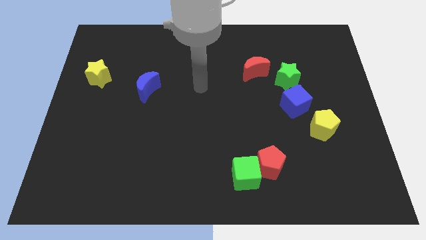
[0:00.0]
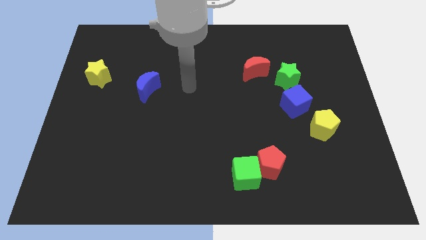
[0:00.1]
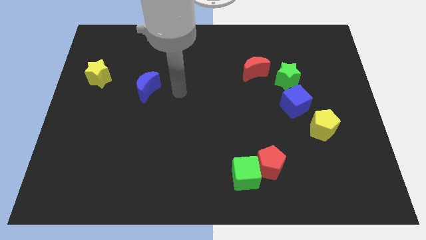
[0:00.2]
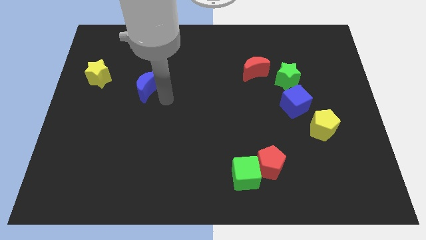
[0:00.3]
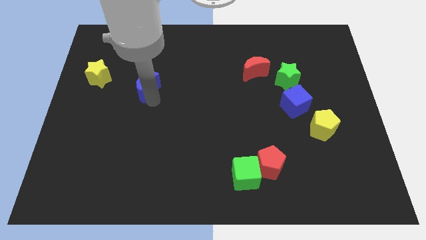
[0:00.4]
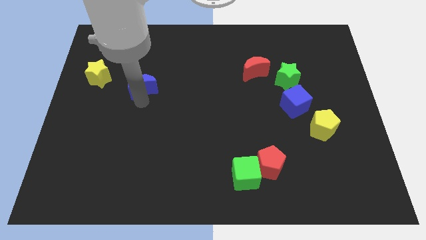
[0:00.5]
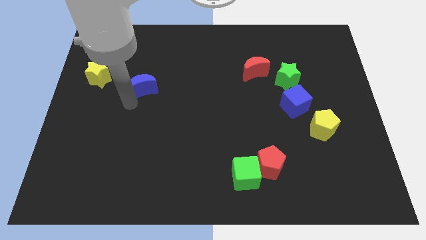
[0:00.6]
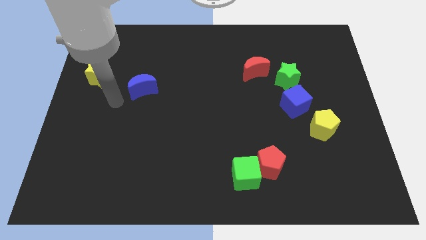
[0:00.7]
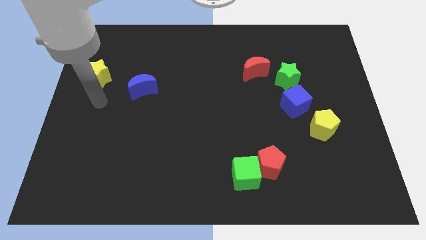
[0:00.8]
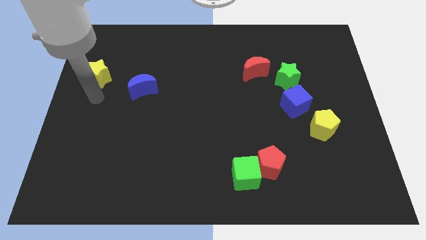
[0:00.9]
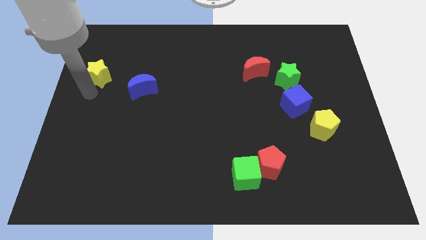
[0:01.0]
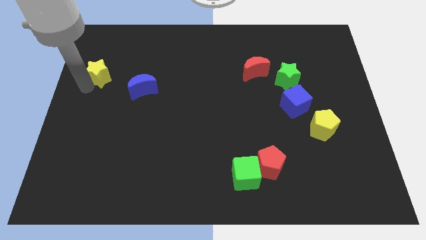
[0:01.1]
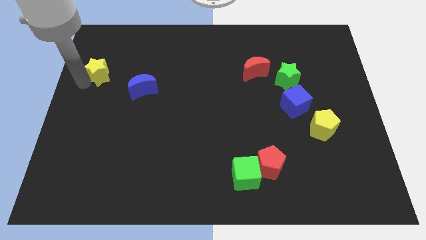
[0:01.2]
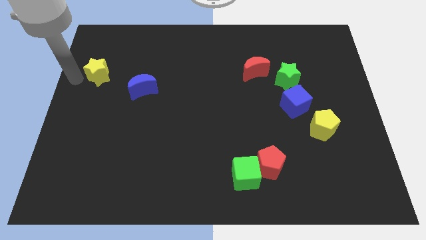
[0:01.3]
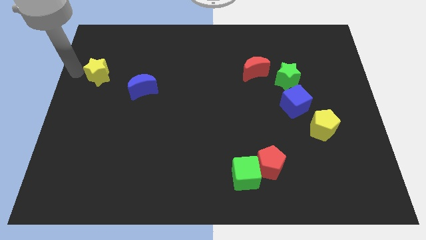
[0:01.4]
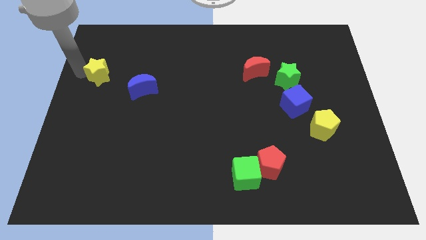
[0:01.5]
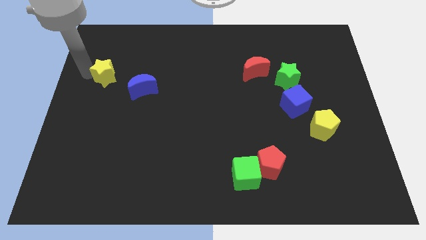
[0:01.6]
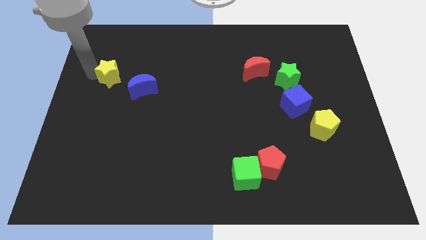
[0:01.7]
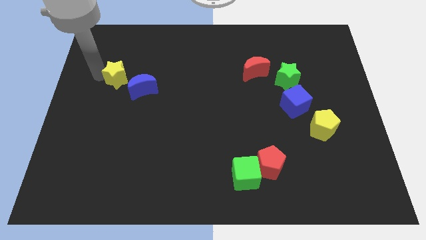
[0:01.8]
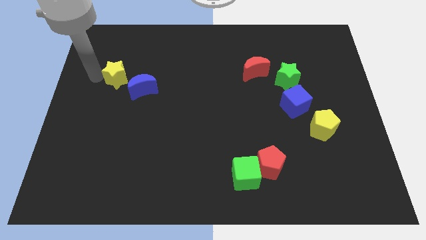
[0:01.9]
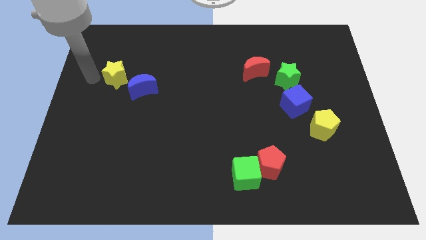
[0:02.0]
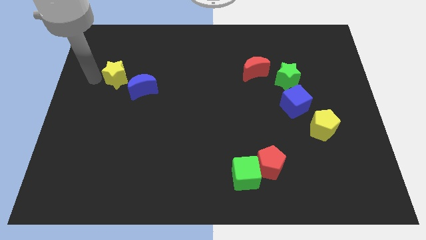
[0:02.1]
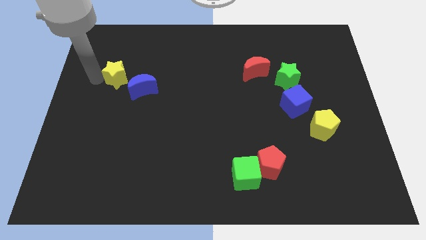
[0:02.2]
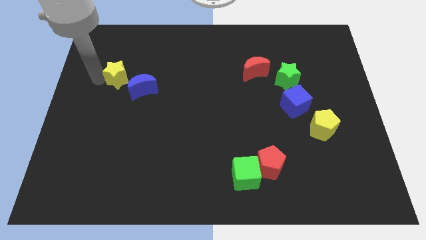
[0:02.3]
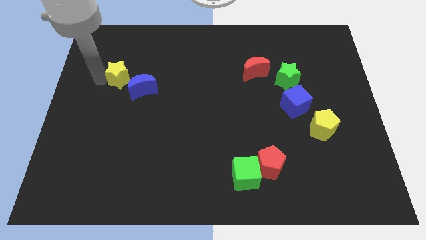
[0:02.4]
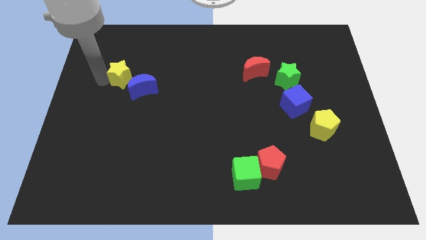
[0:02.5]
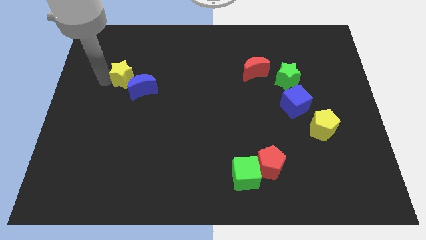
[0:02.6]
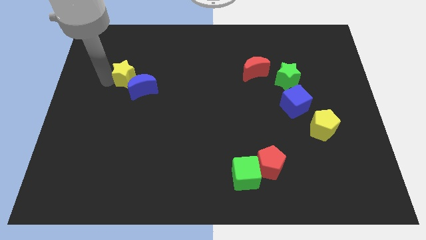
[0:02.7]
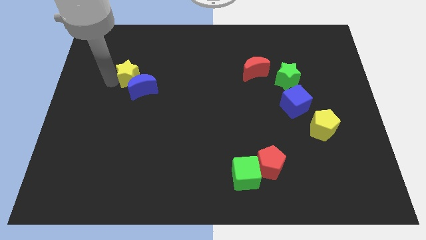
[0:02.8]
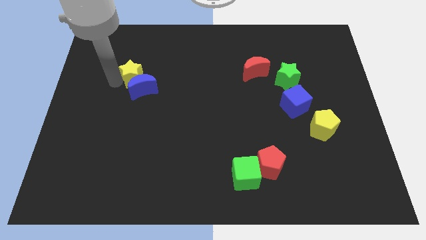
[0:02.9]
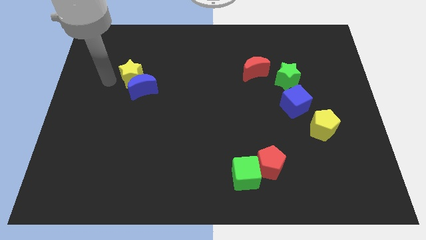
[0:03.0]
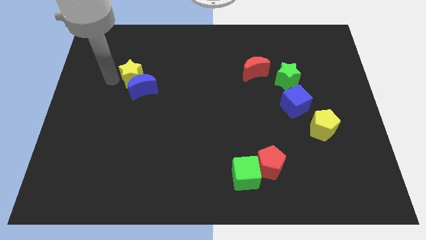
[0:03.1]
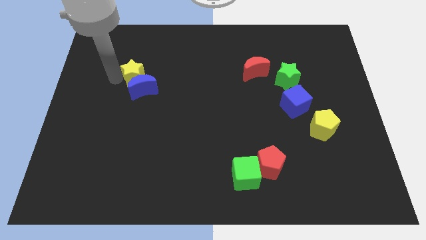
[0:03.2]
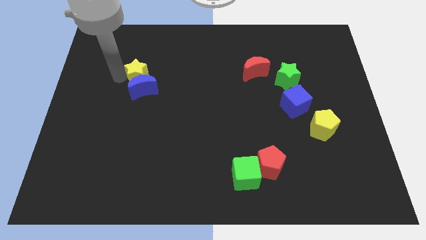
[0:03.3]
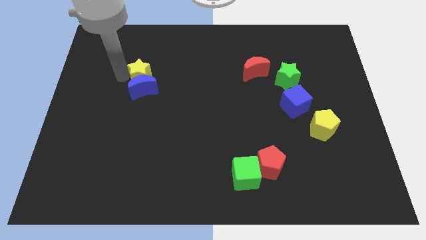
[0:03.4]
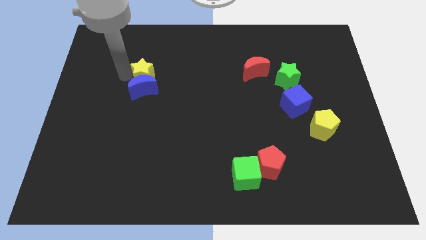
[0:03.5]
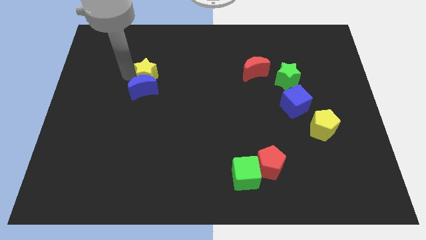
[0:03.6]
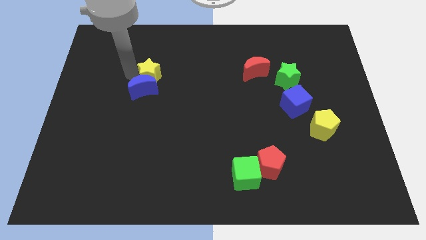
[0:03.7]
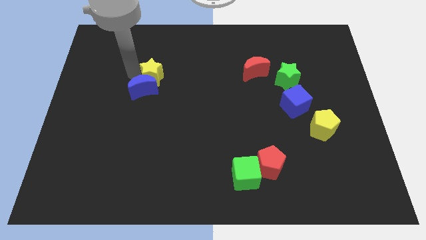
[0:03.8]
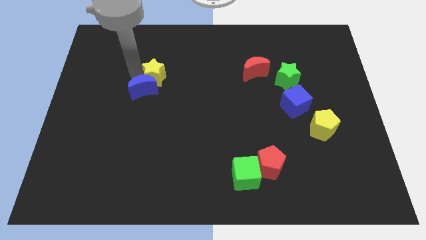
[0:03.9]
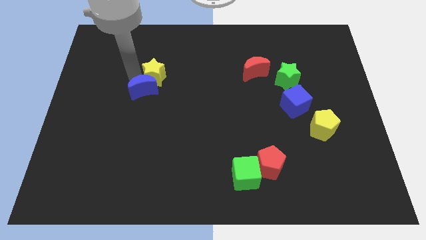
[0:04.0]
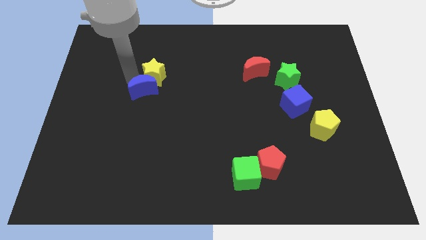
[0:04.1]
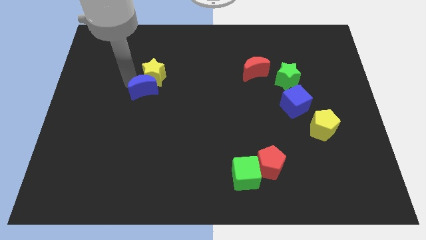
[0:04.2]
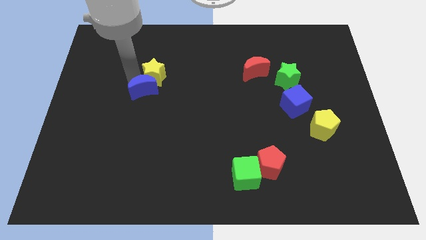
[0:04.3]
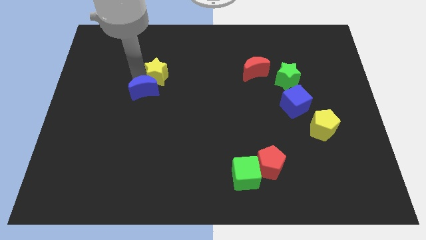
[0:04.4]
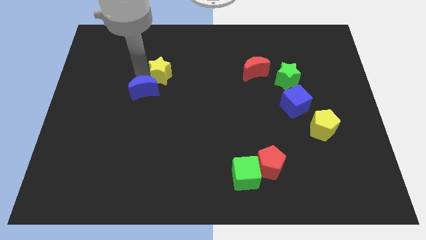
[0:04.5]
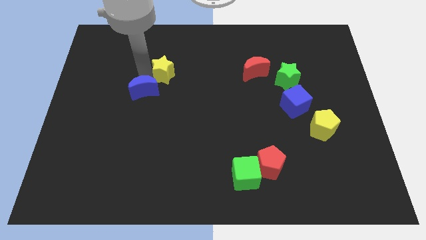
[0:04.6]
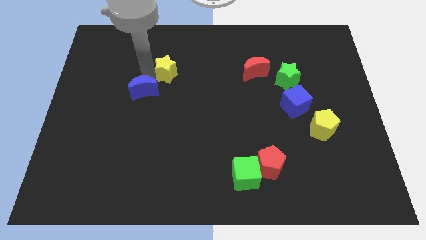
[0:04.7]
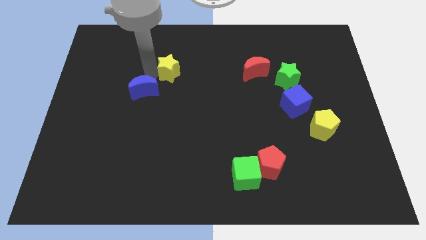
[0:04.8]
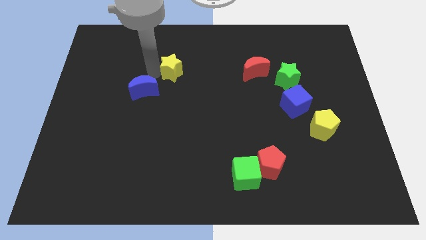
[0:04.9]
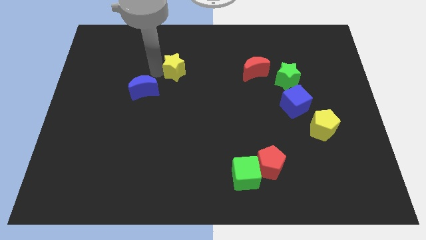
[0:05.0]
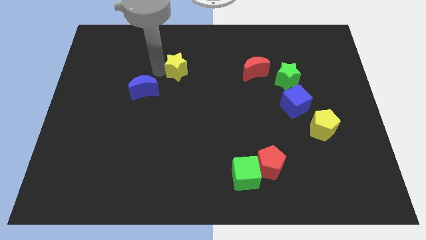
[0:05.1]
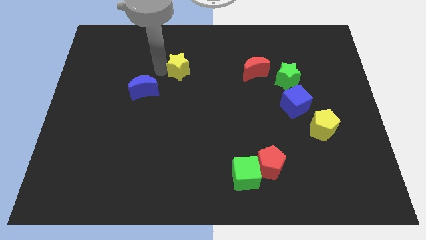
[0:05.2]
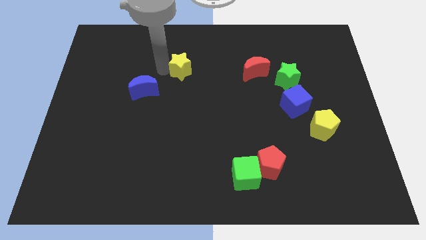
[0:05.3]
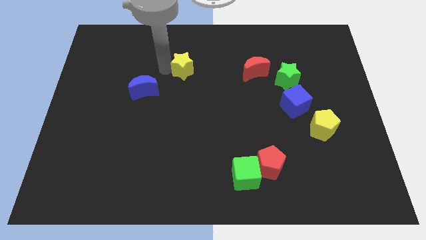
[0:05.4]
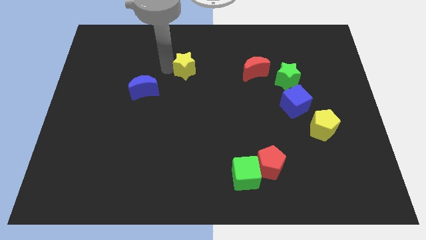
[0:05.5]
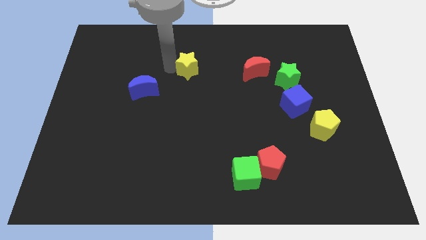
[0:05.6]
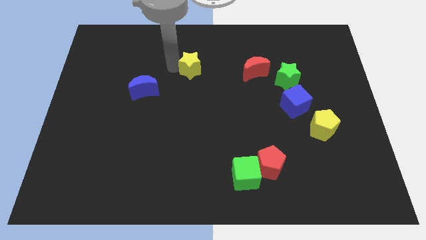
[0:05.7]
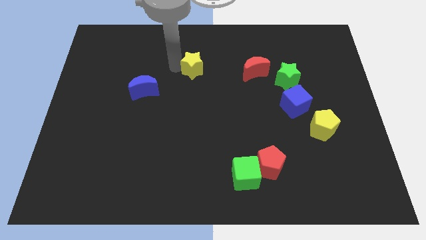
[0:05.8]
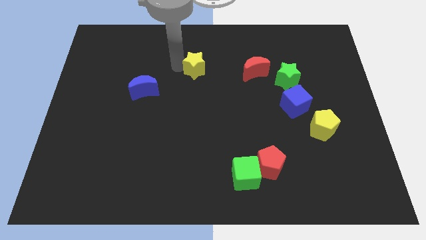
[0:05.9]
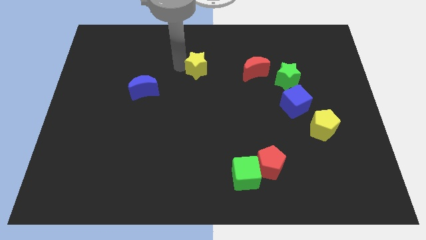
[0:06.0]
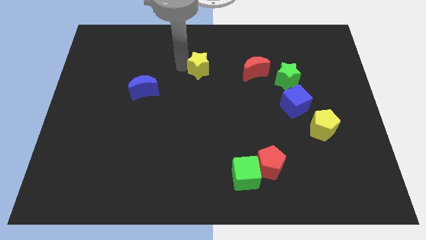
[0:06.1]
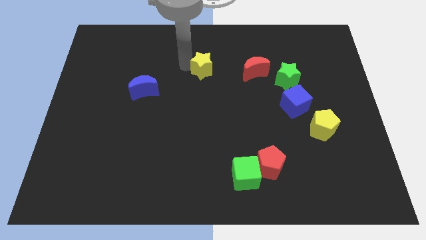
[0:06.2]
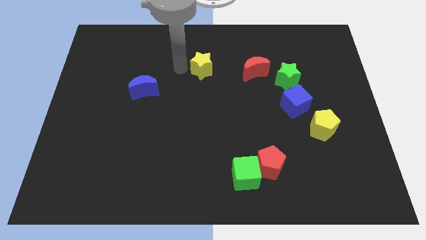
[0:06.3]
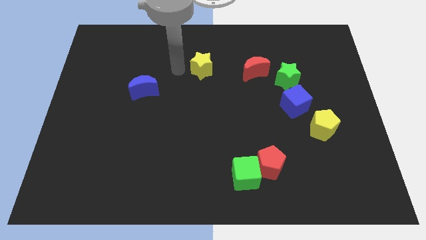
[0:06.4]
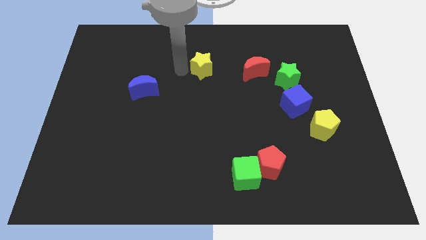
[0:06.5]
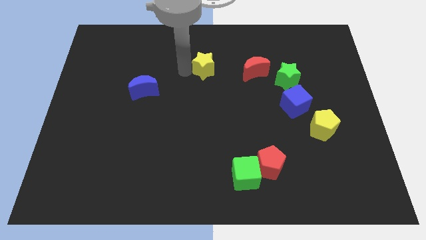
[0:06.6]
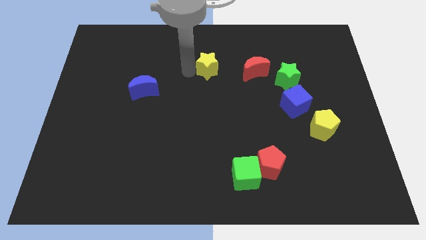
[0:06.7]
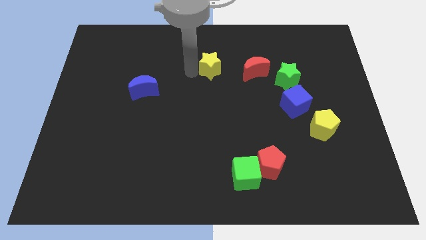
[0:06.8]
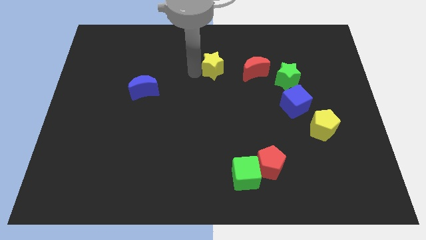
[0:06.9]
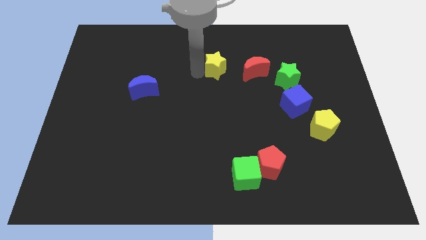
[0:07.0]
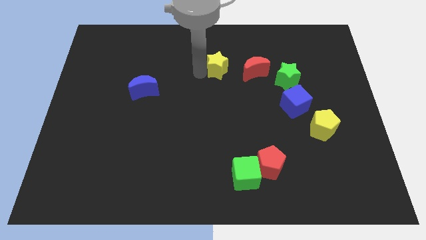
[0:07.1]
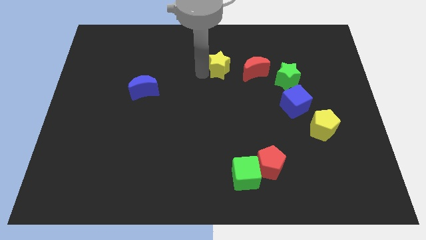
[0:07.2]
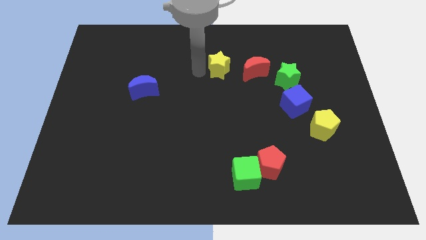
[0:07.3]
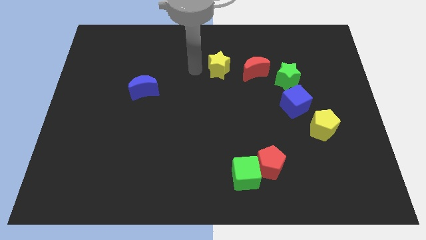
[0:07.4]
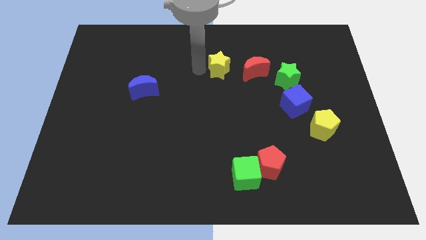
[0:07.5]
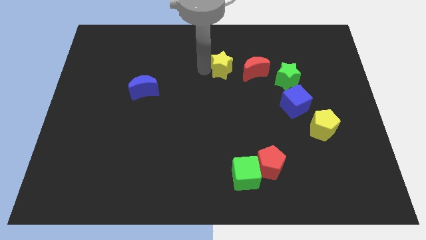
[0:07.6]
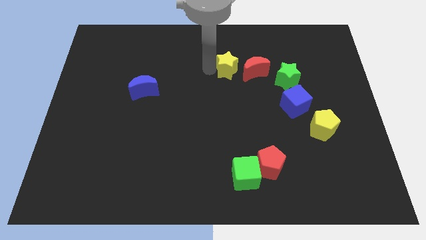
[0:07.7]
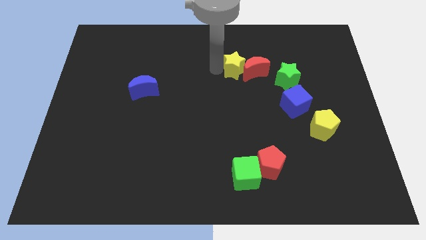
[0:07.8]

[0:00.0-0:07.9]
push the yellow star next to the red moon
